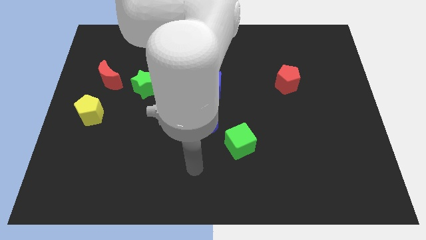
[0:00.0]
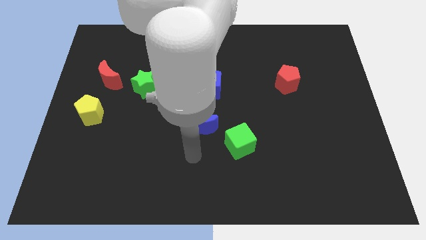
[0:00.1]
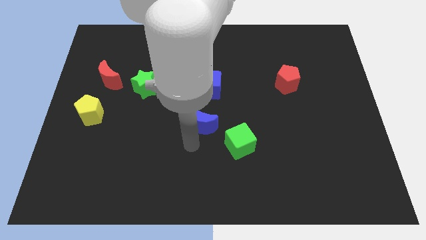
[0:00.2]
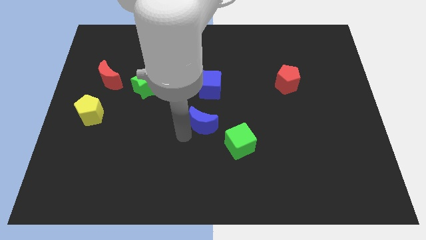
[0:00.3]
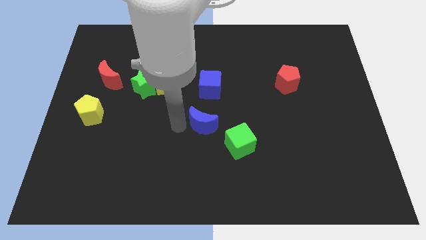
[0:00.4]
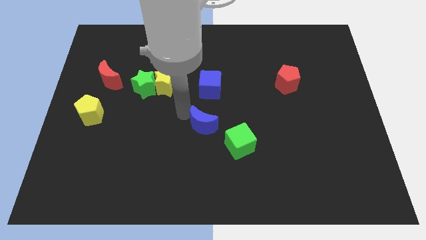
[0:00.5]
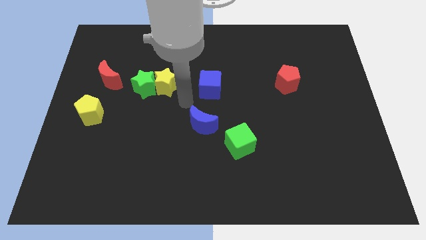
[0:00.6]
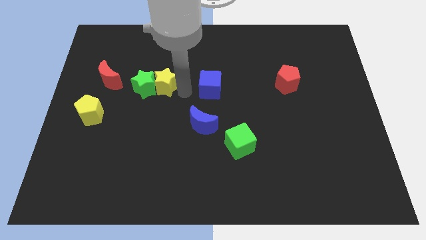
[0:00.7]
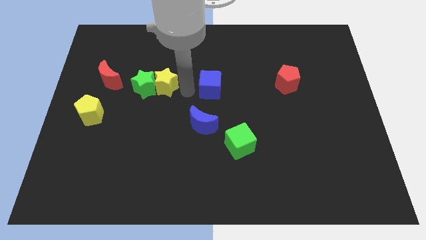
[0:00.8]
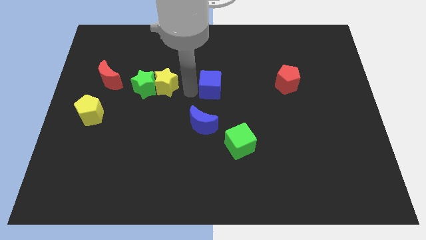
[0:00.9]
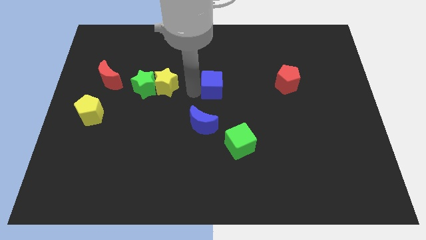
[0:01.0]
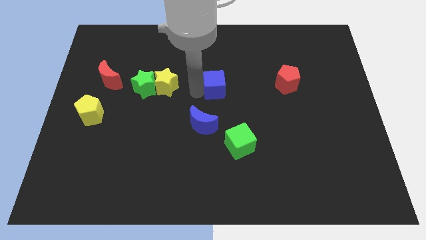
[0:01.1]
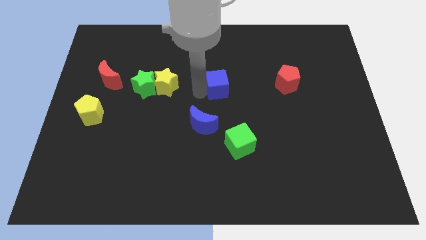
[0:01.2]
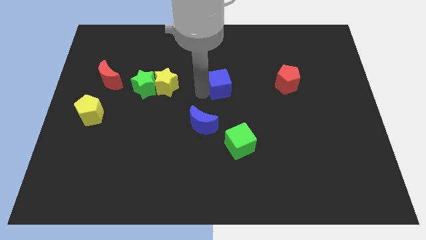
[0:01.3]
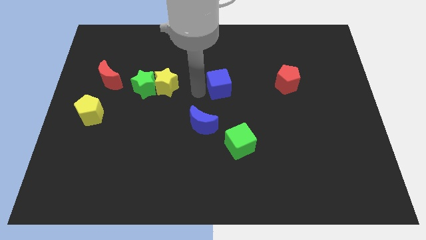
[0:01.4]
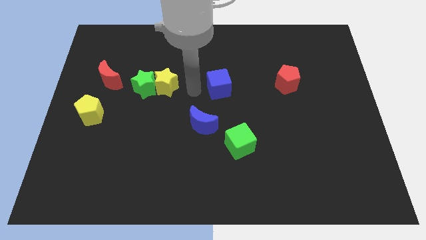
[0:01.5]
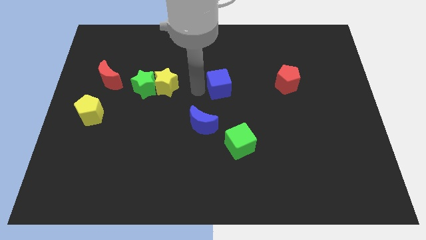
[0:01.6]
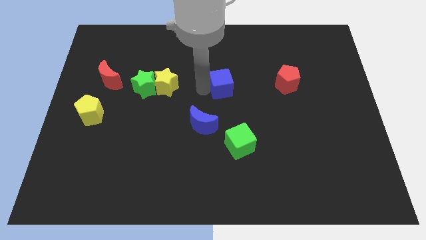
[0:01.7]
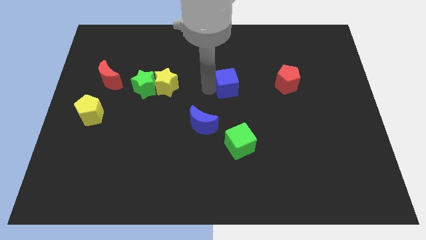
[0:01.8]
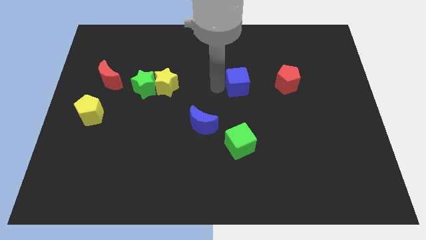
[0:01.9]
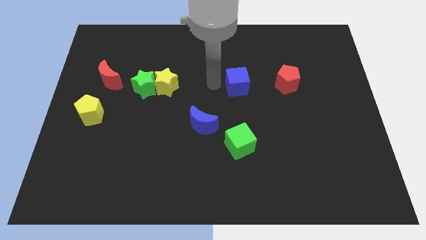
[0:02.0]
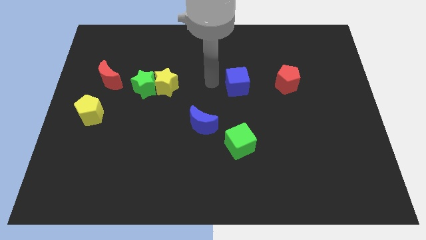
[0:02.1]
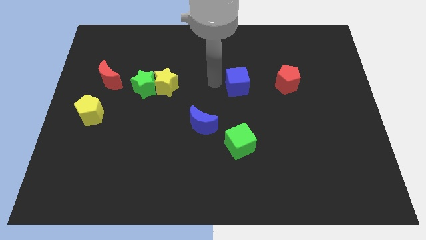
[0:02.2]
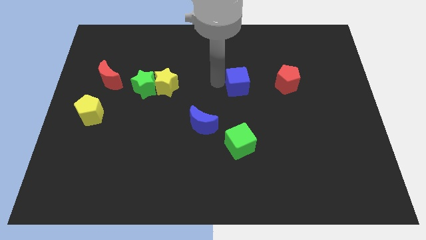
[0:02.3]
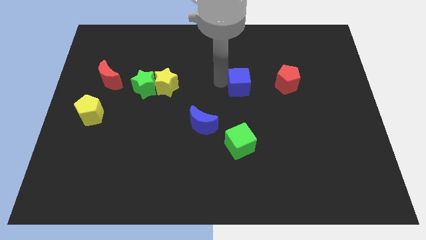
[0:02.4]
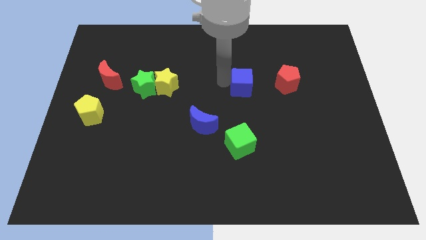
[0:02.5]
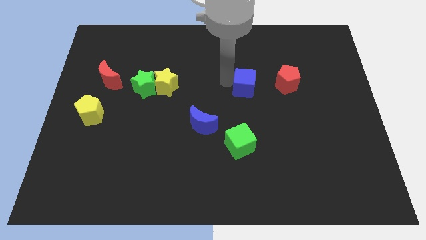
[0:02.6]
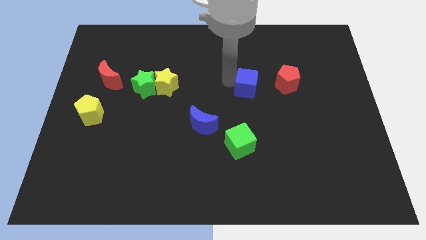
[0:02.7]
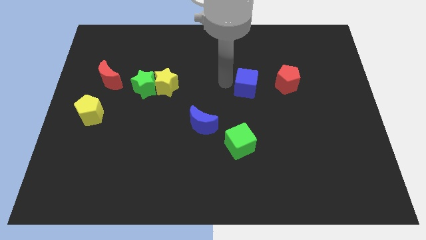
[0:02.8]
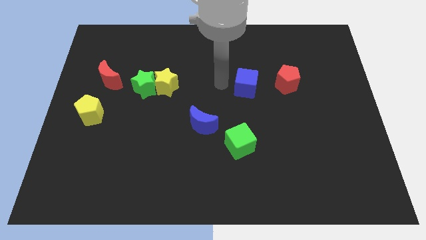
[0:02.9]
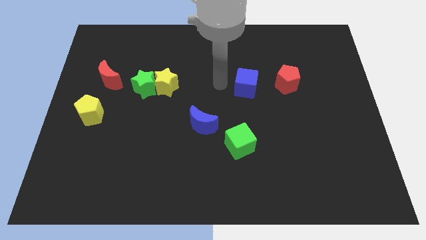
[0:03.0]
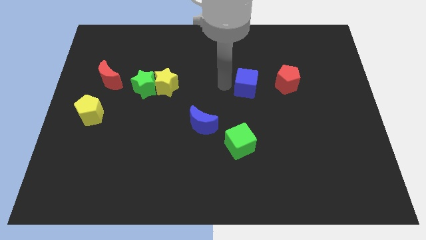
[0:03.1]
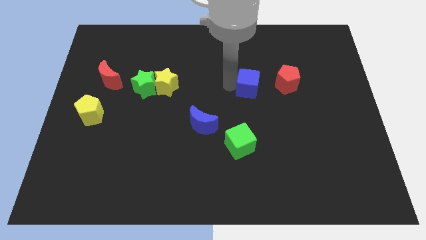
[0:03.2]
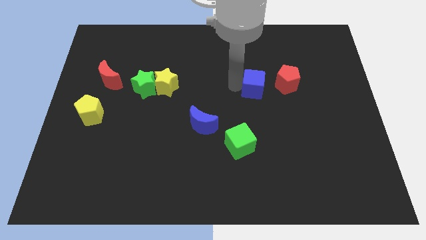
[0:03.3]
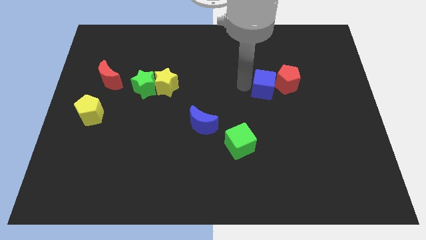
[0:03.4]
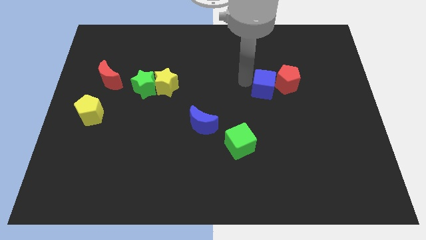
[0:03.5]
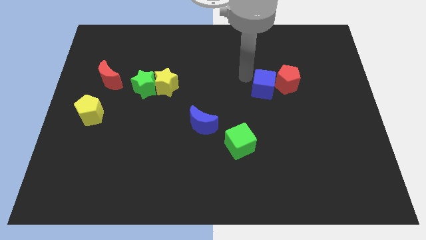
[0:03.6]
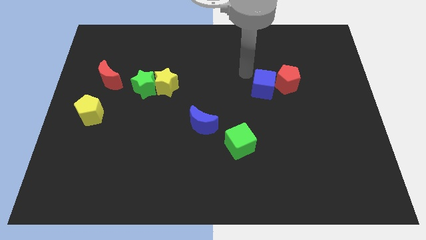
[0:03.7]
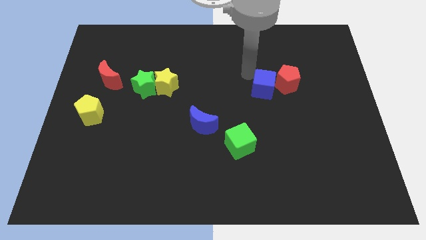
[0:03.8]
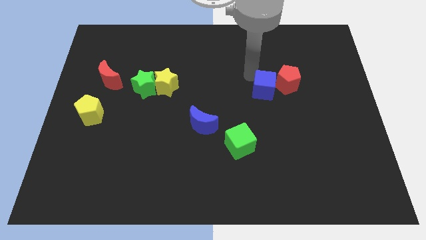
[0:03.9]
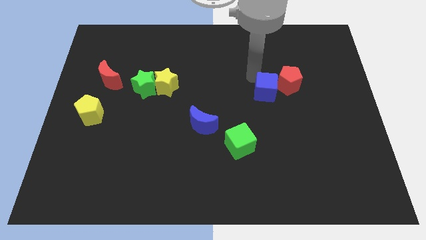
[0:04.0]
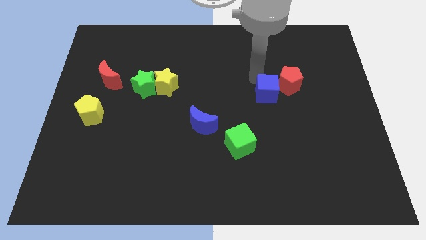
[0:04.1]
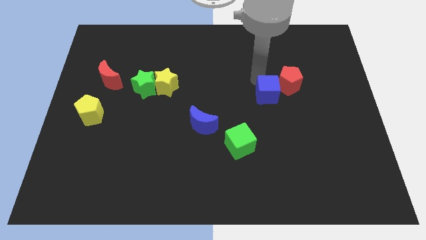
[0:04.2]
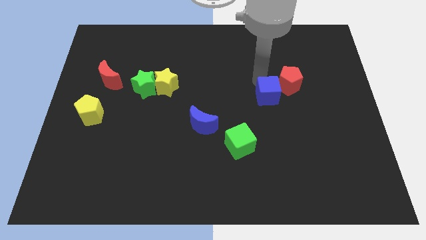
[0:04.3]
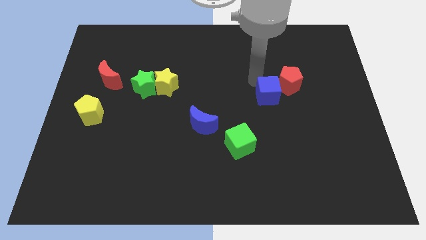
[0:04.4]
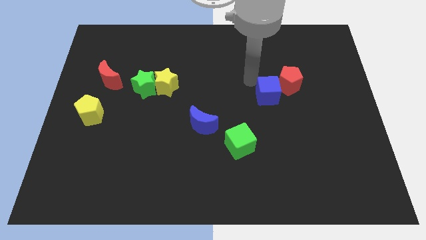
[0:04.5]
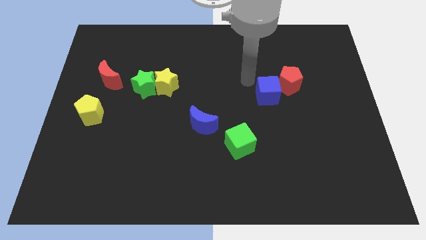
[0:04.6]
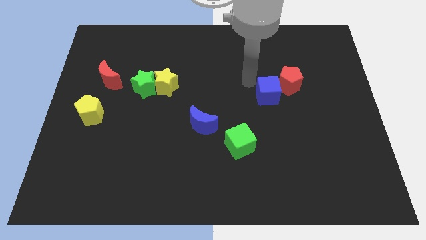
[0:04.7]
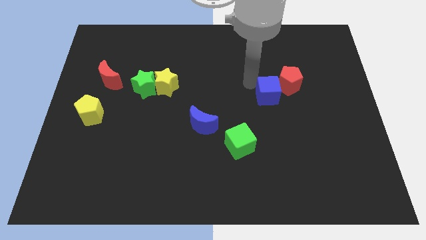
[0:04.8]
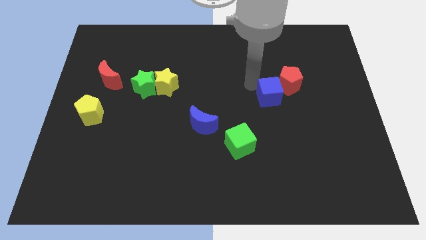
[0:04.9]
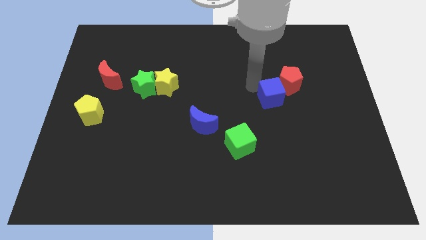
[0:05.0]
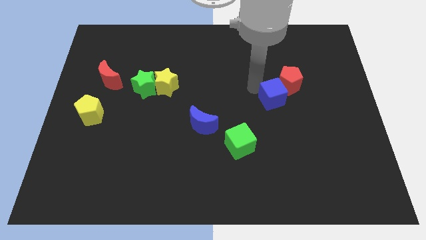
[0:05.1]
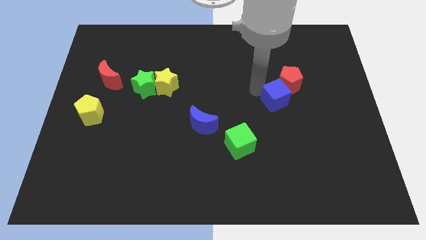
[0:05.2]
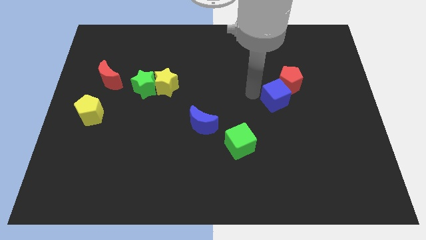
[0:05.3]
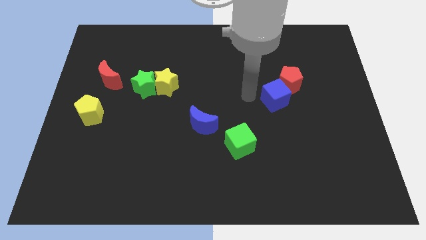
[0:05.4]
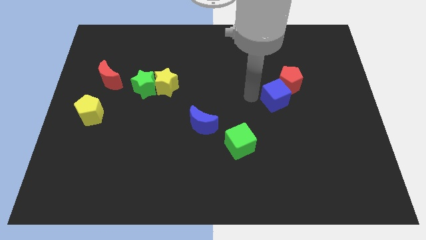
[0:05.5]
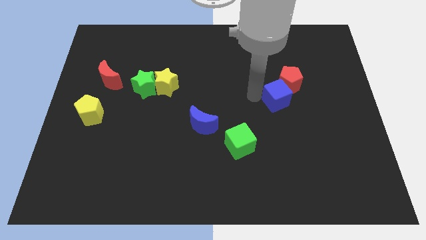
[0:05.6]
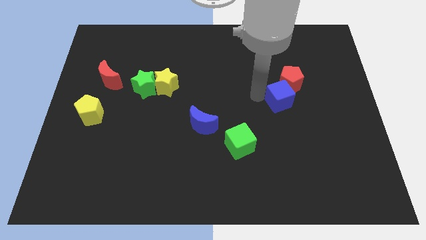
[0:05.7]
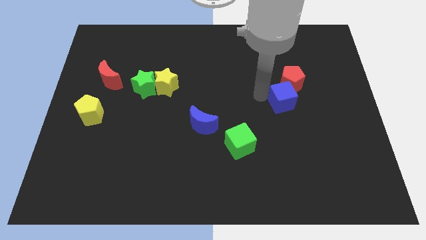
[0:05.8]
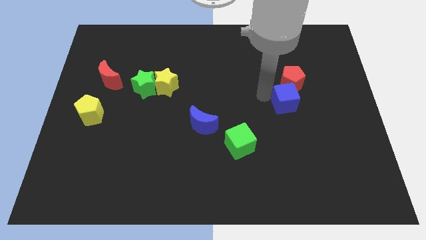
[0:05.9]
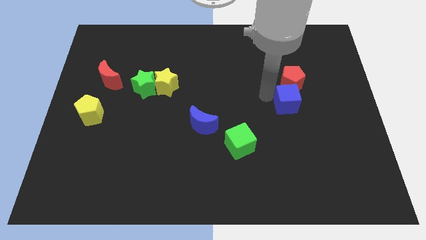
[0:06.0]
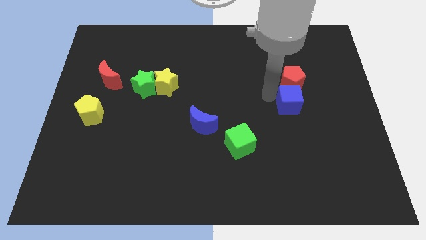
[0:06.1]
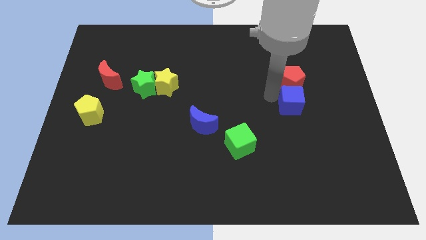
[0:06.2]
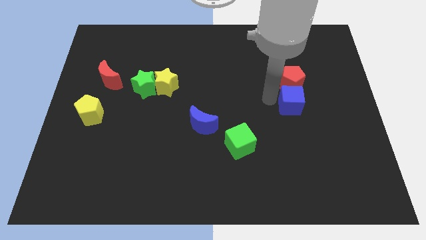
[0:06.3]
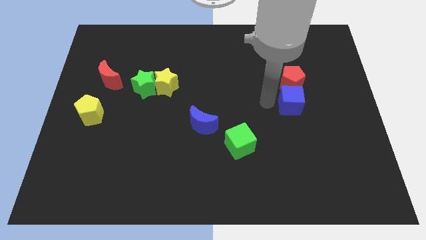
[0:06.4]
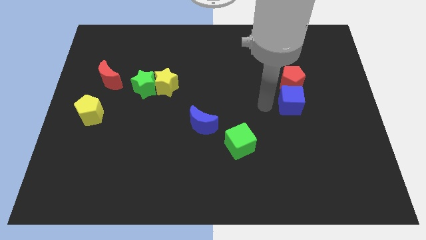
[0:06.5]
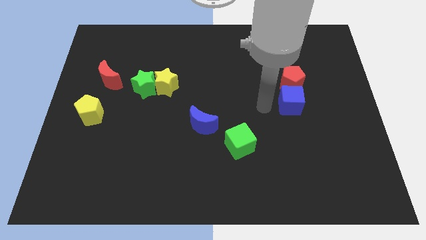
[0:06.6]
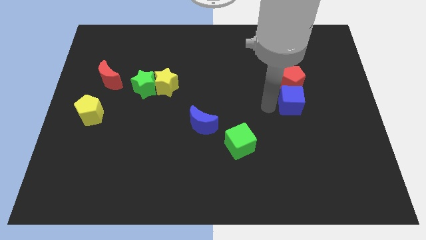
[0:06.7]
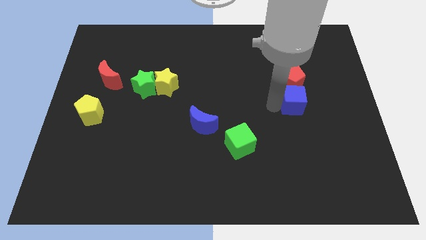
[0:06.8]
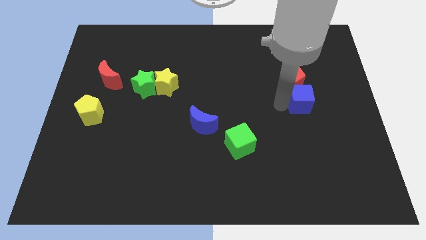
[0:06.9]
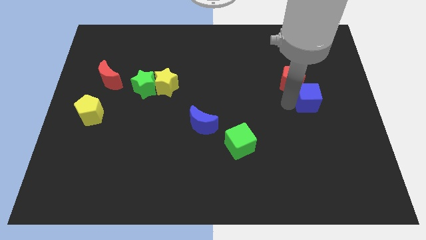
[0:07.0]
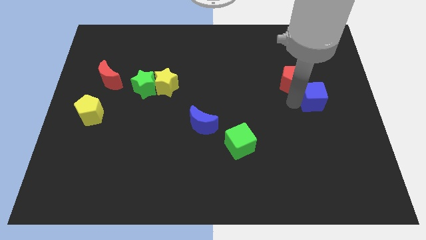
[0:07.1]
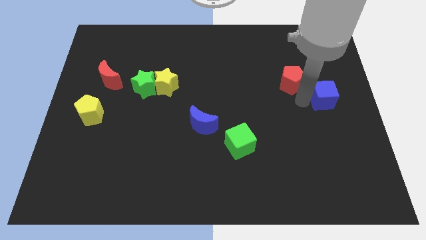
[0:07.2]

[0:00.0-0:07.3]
push the blue cube to the right side of the board
